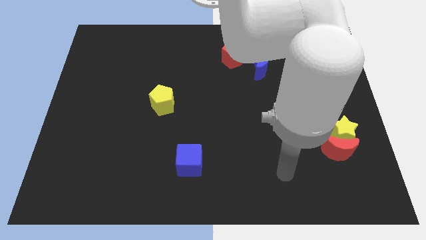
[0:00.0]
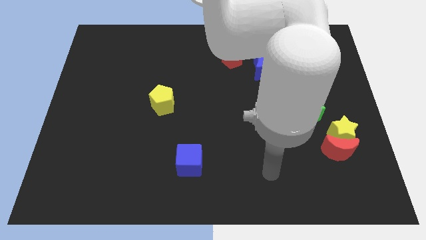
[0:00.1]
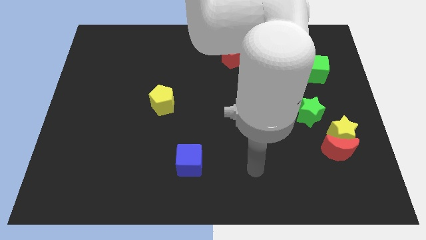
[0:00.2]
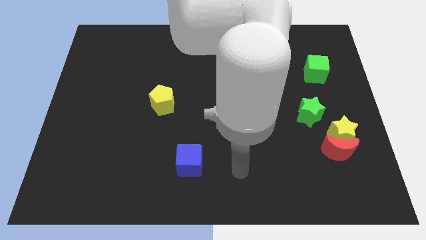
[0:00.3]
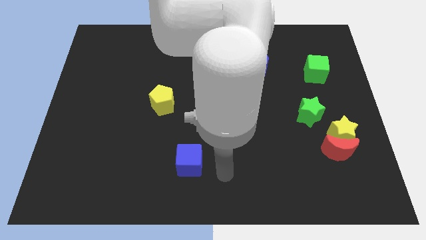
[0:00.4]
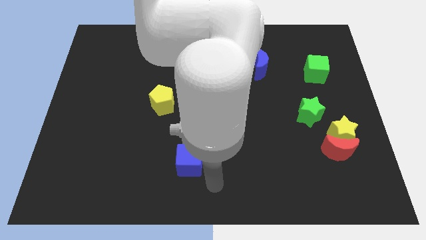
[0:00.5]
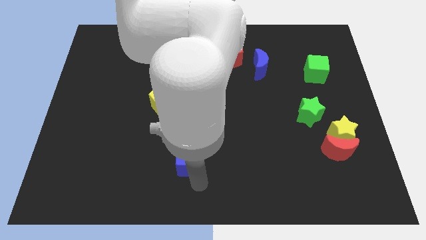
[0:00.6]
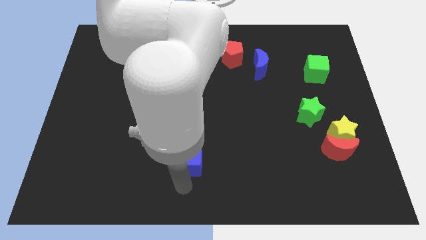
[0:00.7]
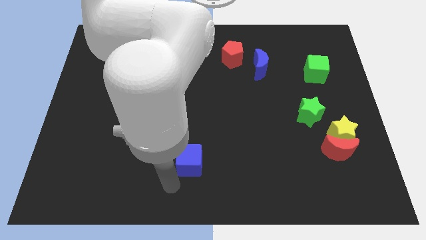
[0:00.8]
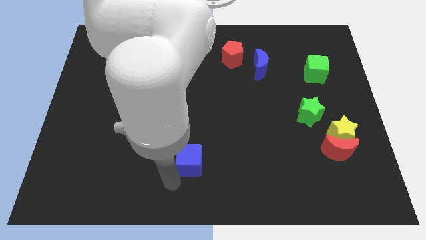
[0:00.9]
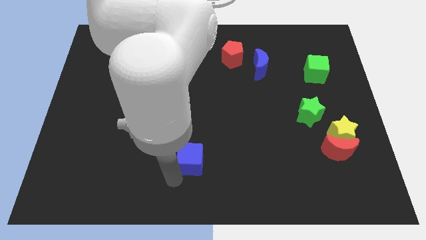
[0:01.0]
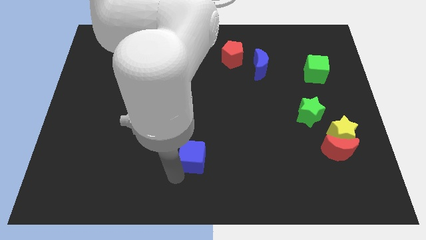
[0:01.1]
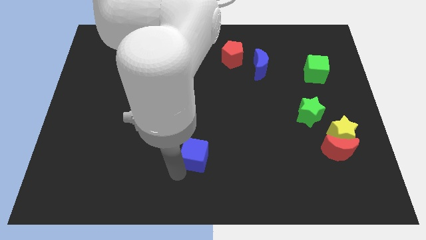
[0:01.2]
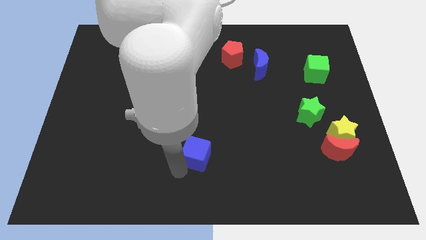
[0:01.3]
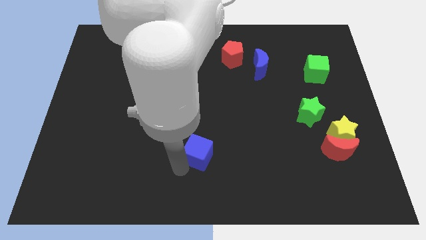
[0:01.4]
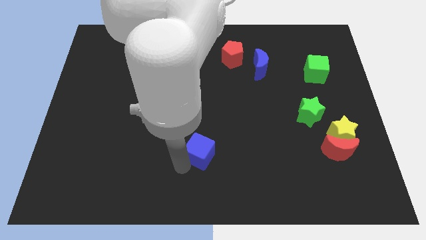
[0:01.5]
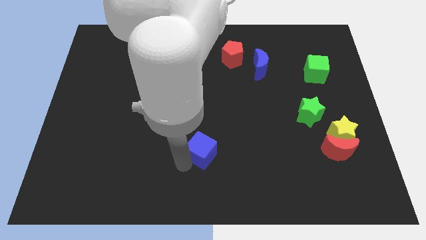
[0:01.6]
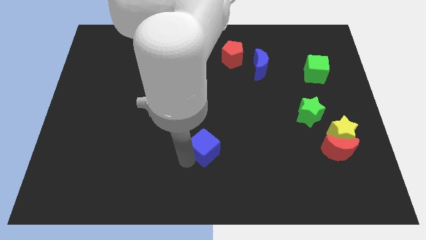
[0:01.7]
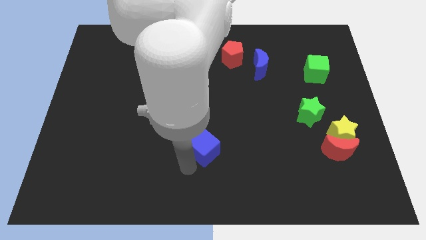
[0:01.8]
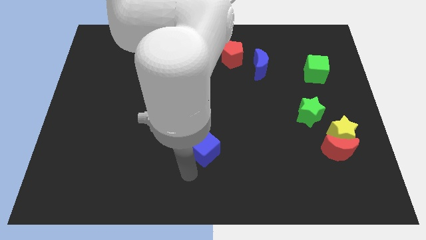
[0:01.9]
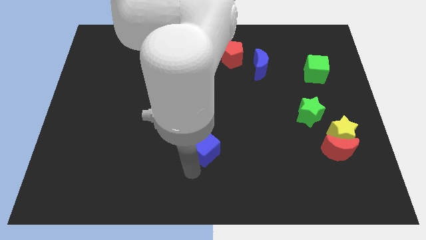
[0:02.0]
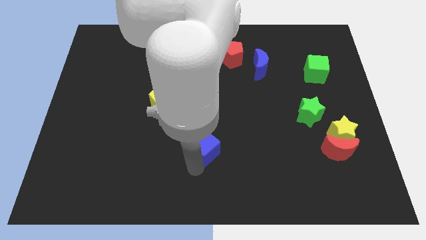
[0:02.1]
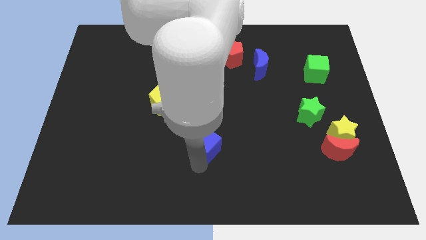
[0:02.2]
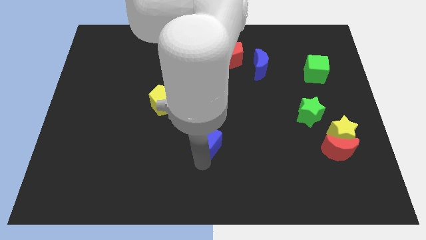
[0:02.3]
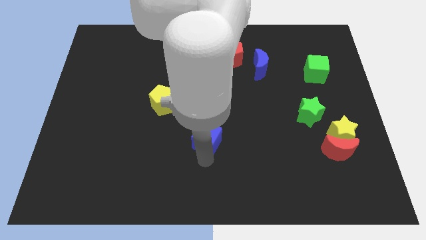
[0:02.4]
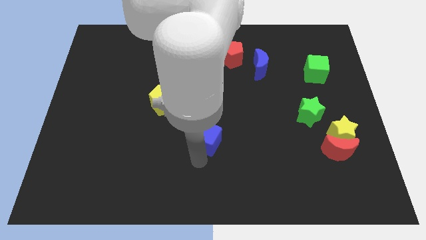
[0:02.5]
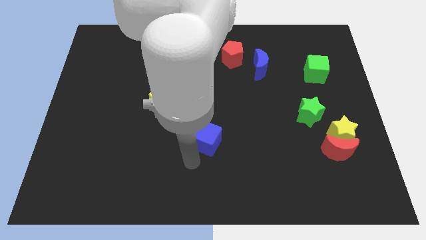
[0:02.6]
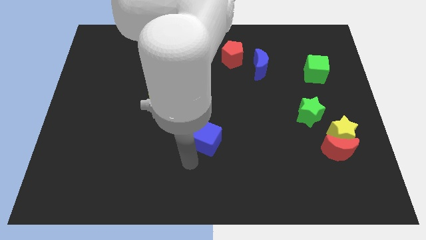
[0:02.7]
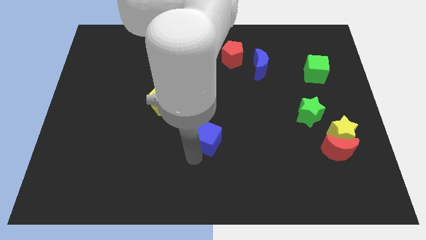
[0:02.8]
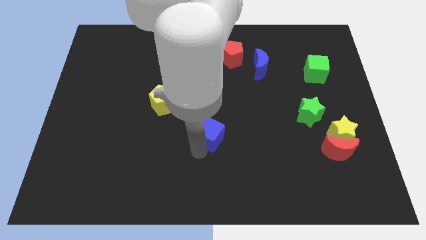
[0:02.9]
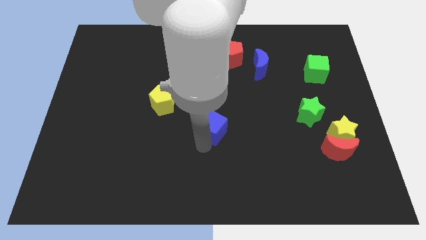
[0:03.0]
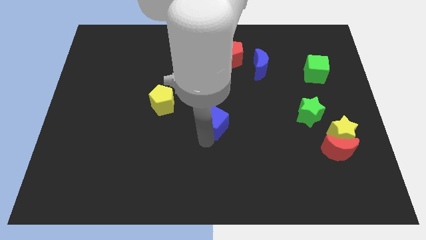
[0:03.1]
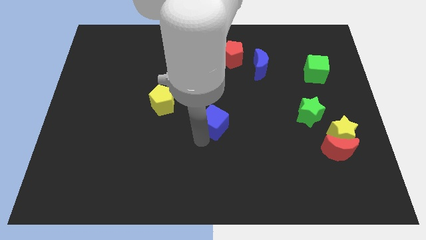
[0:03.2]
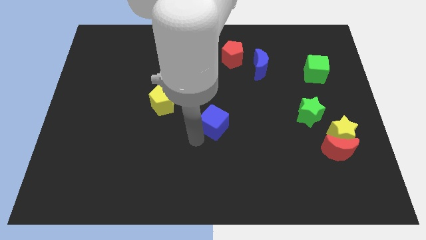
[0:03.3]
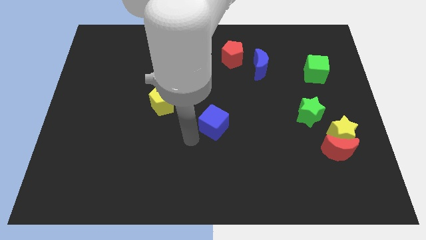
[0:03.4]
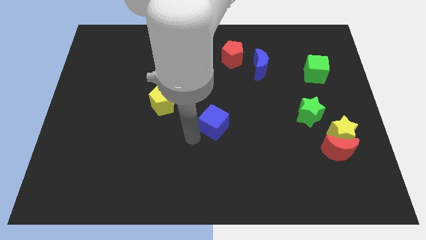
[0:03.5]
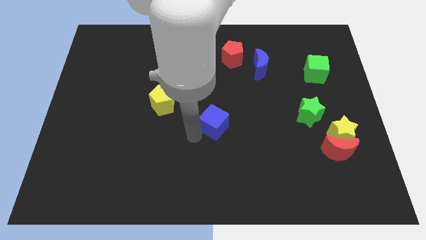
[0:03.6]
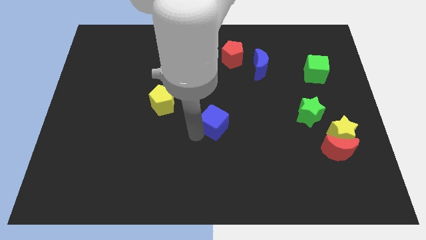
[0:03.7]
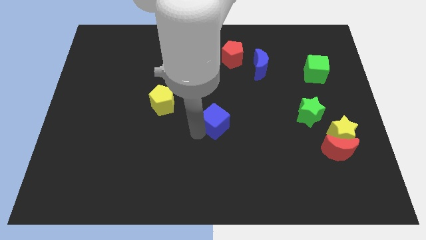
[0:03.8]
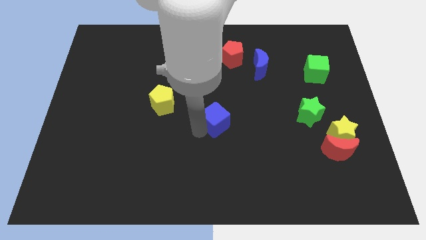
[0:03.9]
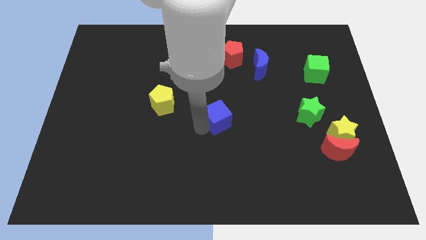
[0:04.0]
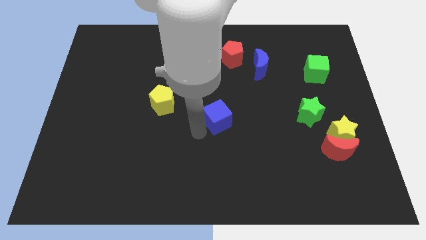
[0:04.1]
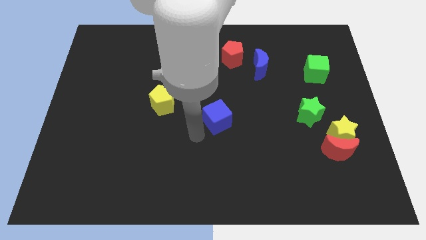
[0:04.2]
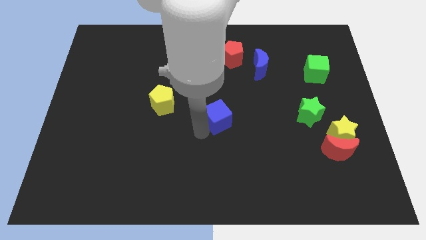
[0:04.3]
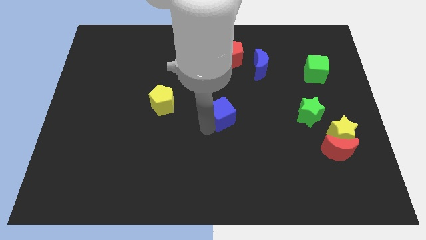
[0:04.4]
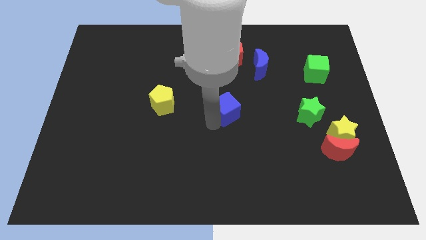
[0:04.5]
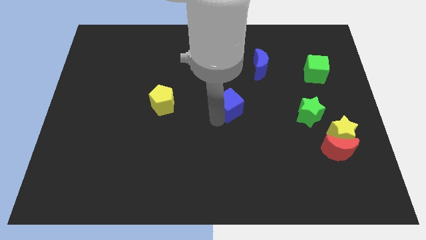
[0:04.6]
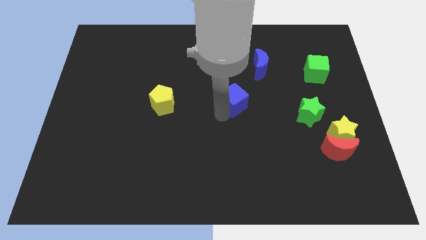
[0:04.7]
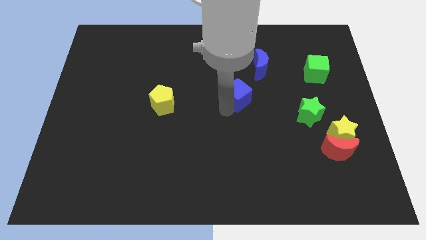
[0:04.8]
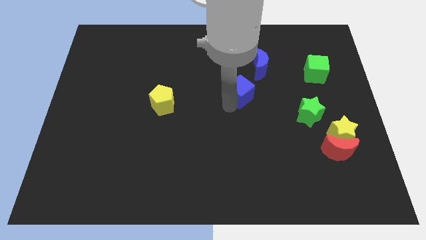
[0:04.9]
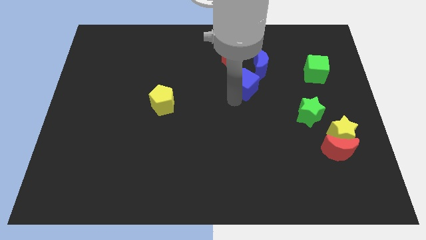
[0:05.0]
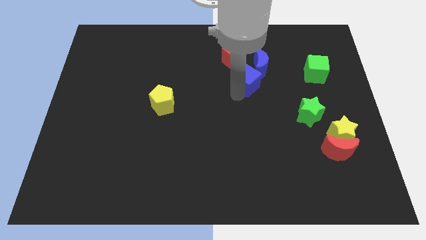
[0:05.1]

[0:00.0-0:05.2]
move the blue cube to the bottom right of the red pentagon

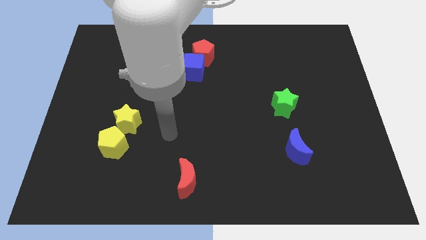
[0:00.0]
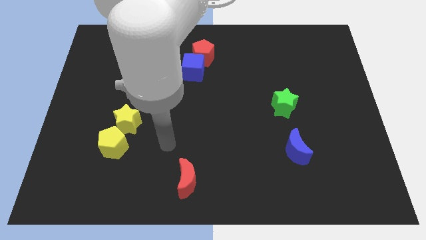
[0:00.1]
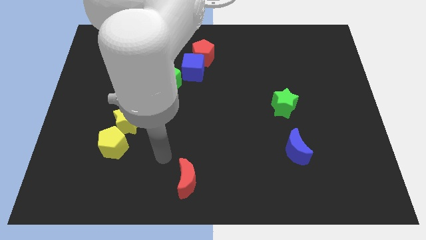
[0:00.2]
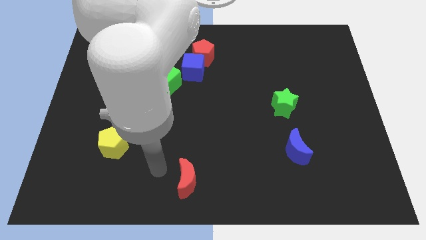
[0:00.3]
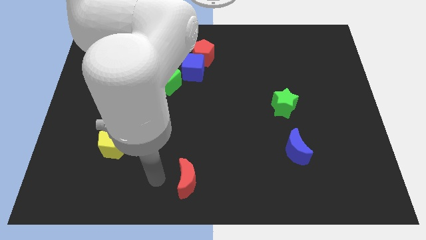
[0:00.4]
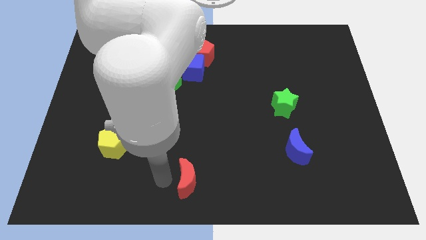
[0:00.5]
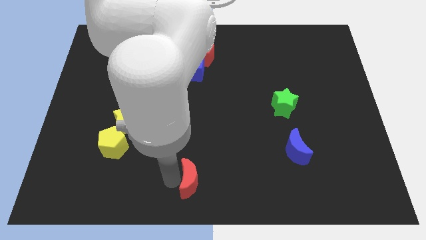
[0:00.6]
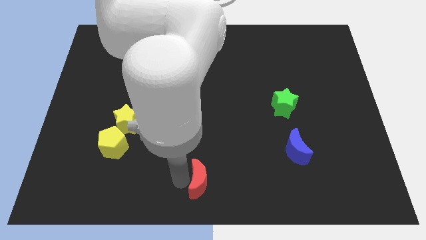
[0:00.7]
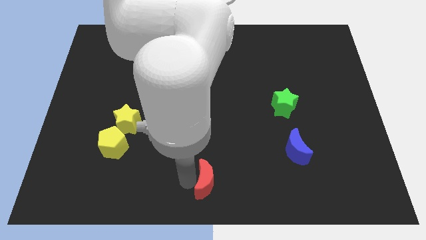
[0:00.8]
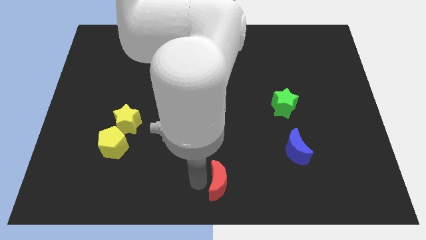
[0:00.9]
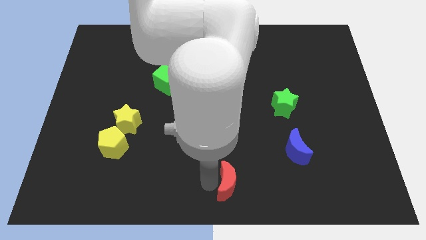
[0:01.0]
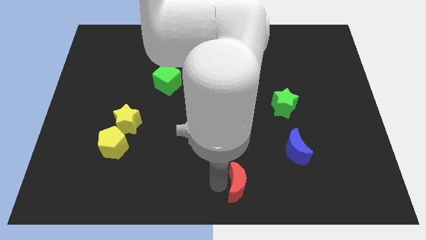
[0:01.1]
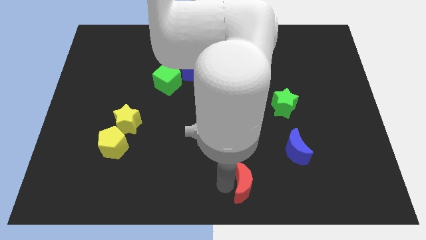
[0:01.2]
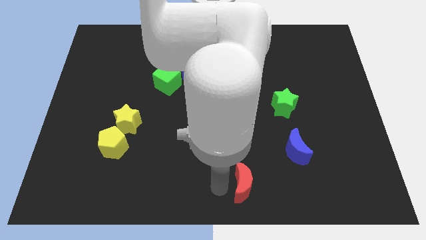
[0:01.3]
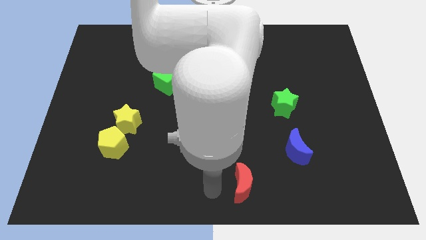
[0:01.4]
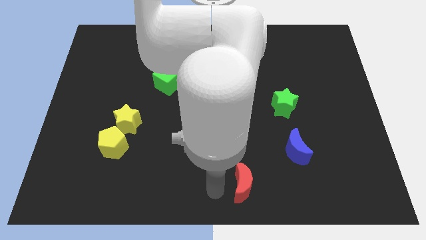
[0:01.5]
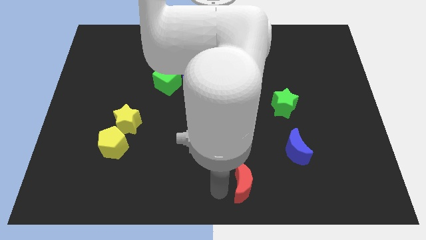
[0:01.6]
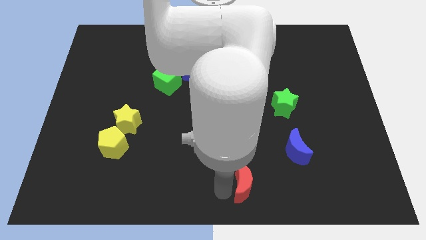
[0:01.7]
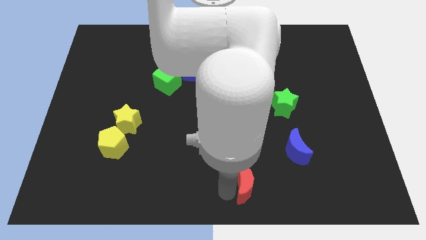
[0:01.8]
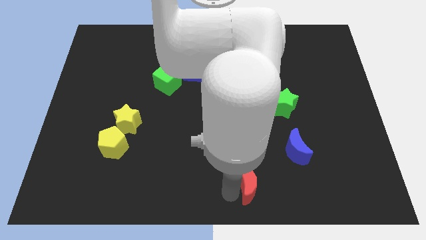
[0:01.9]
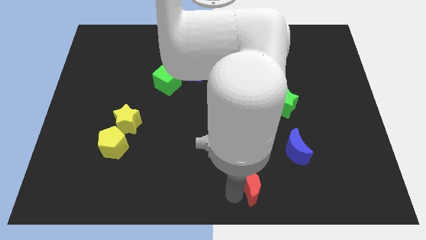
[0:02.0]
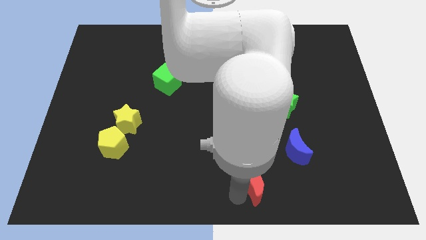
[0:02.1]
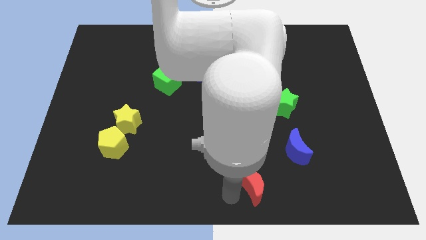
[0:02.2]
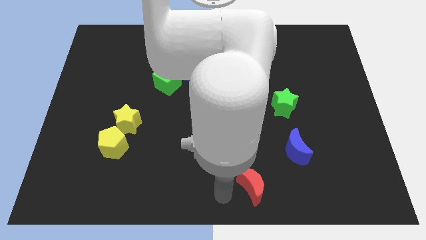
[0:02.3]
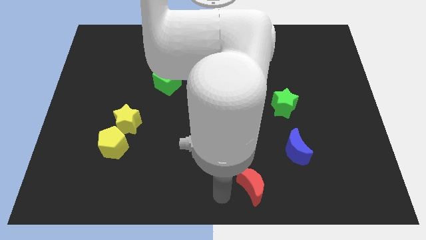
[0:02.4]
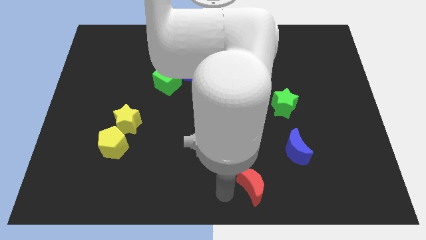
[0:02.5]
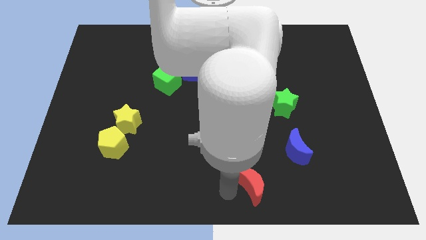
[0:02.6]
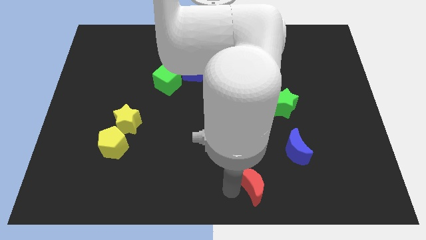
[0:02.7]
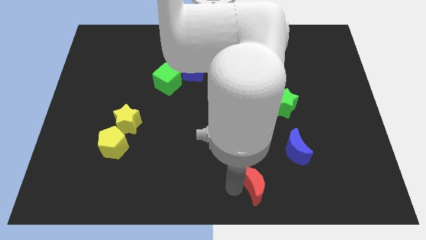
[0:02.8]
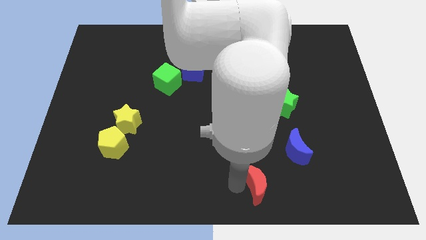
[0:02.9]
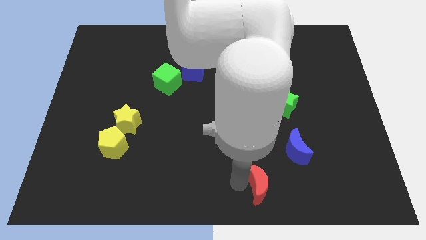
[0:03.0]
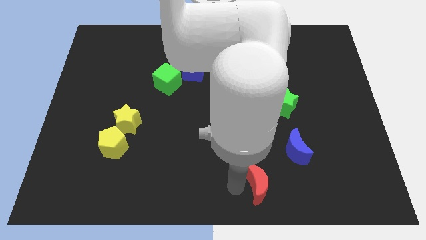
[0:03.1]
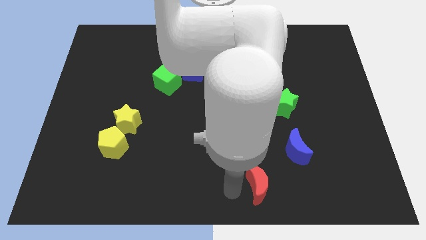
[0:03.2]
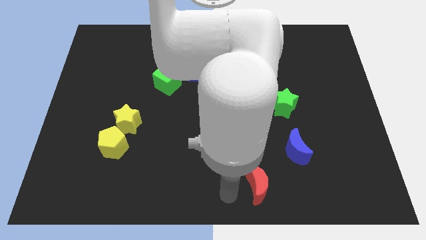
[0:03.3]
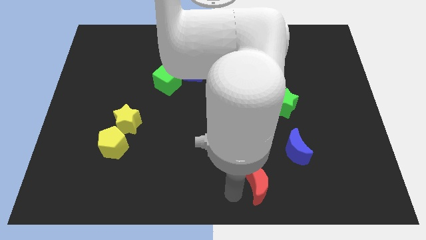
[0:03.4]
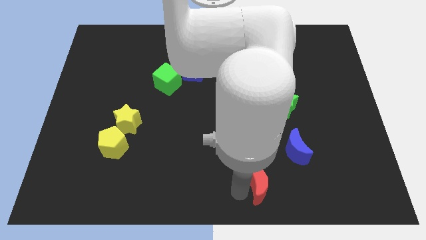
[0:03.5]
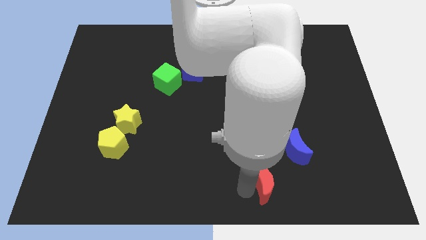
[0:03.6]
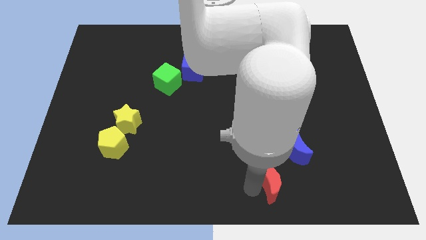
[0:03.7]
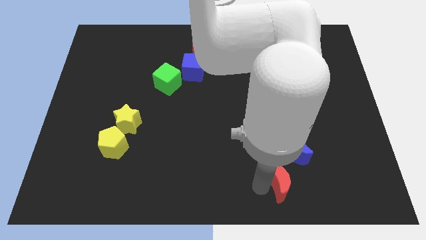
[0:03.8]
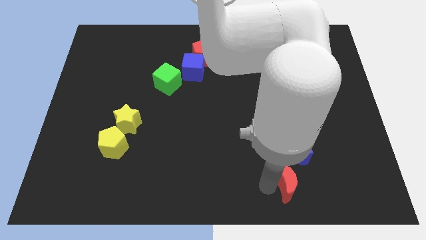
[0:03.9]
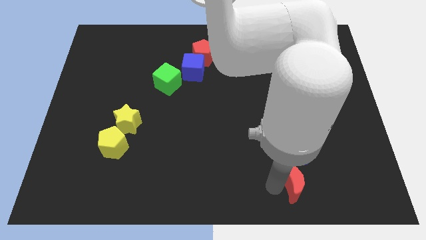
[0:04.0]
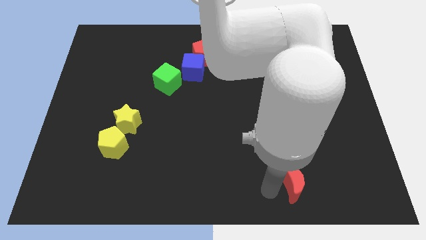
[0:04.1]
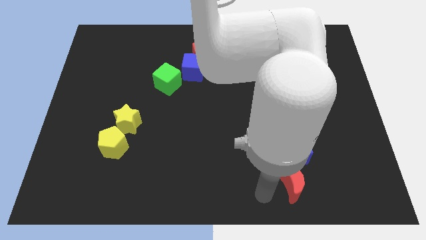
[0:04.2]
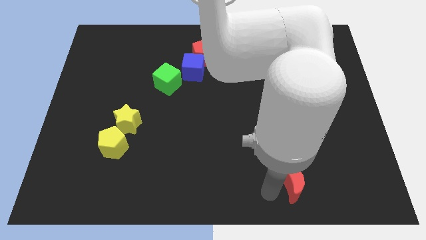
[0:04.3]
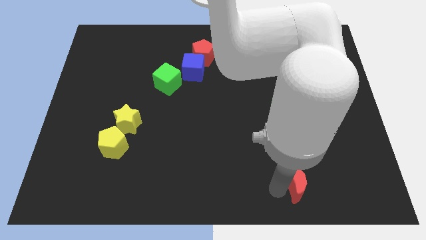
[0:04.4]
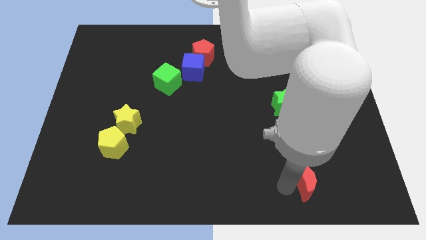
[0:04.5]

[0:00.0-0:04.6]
move the red moon to the bottom right side of the blue moon
